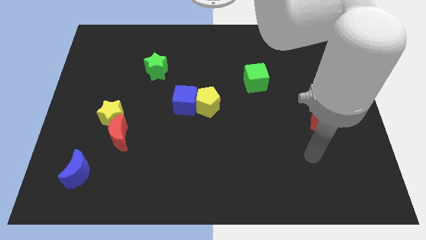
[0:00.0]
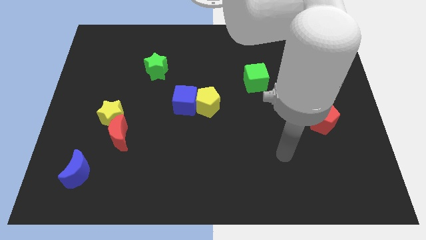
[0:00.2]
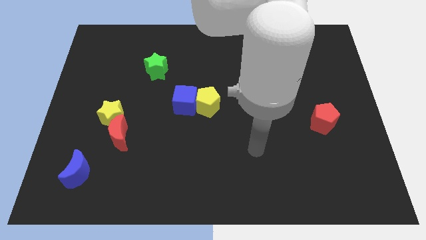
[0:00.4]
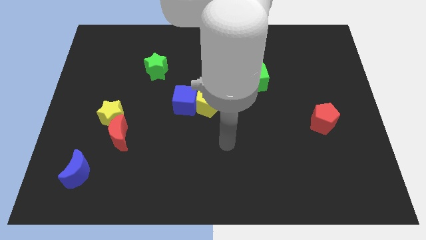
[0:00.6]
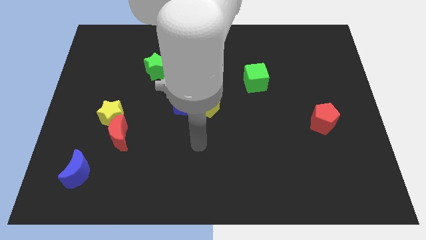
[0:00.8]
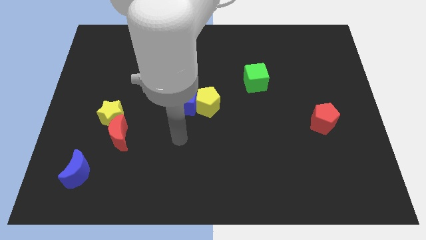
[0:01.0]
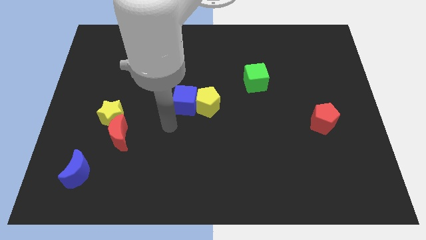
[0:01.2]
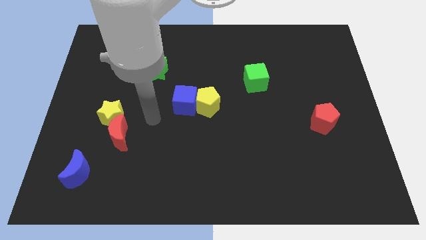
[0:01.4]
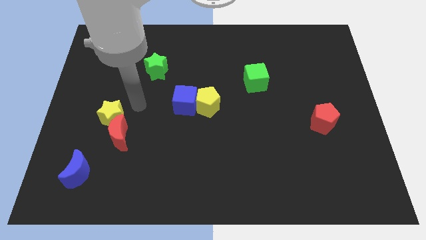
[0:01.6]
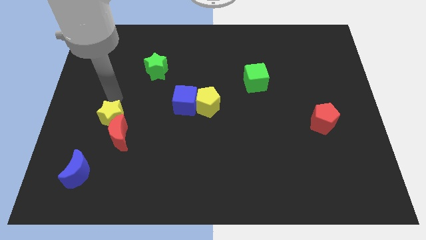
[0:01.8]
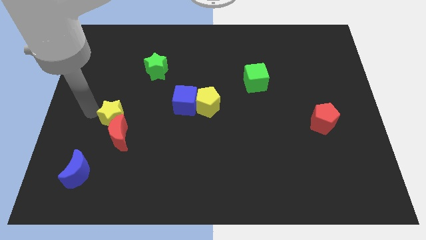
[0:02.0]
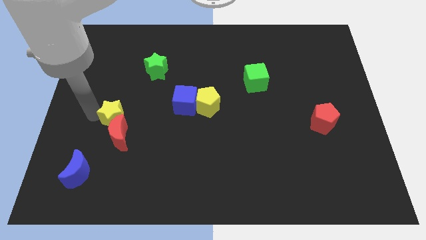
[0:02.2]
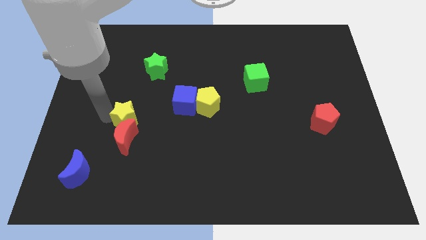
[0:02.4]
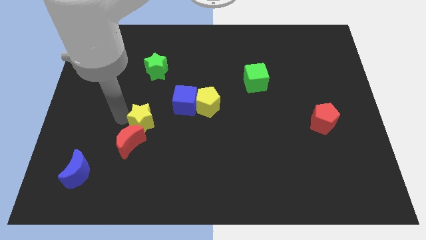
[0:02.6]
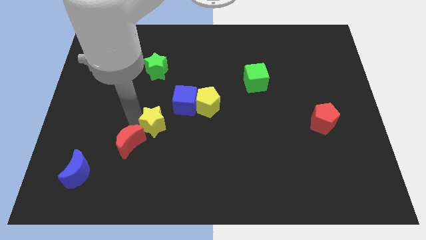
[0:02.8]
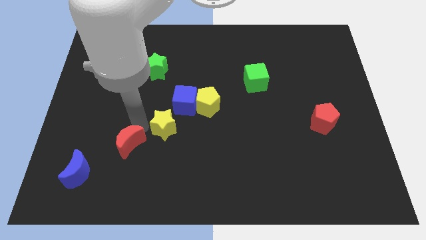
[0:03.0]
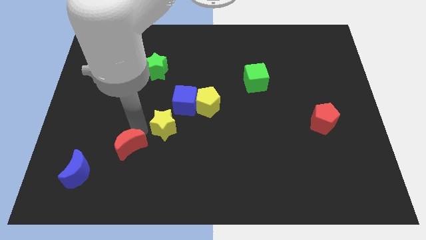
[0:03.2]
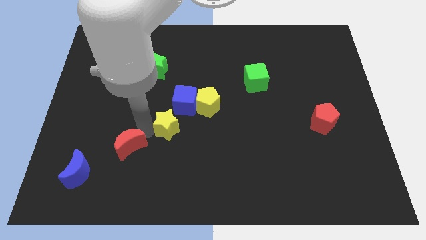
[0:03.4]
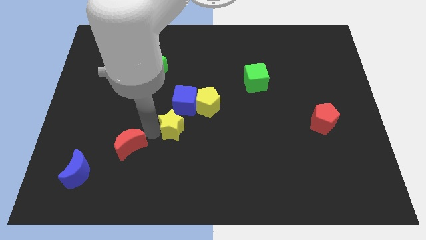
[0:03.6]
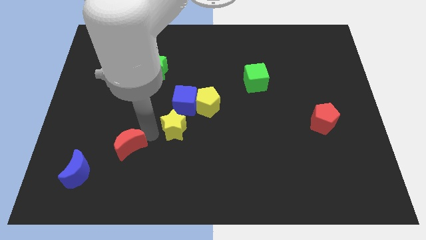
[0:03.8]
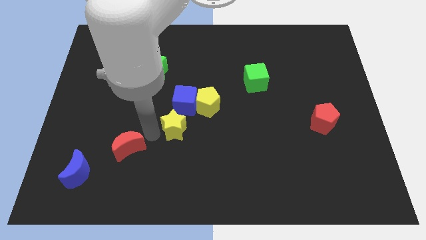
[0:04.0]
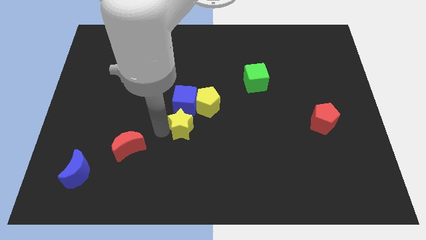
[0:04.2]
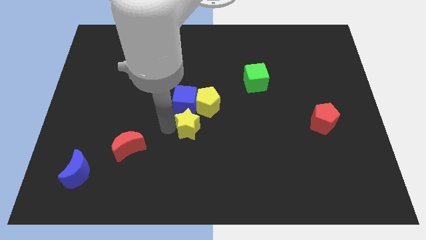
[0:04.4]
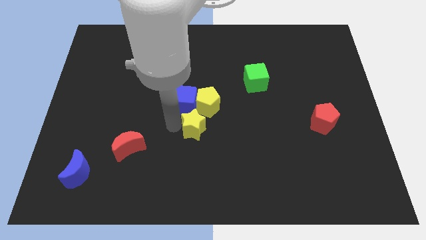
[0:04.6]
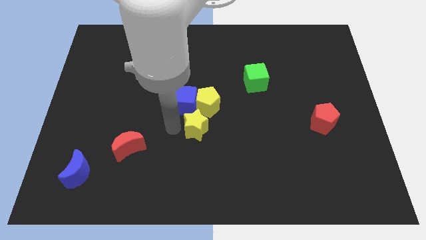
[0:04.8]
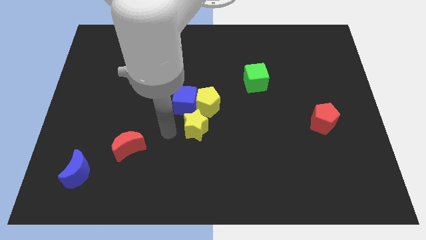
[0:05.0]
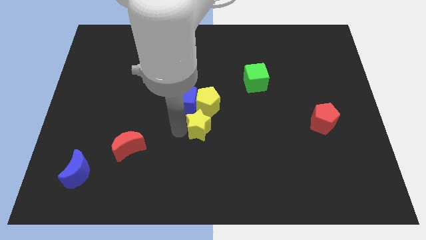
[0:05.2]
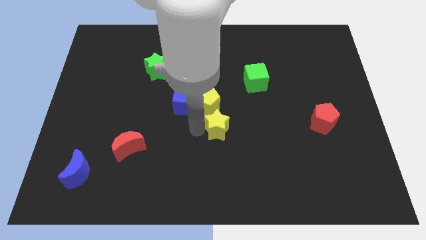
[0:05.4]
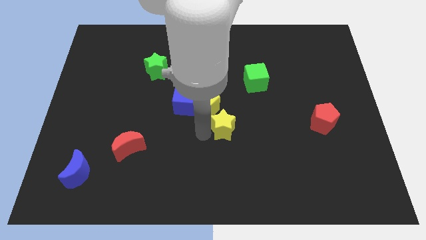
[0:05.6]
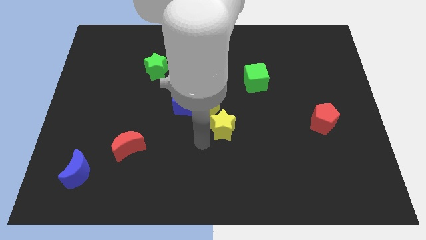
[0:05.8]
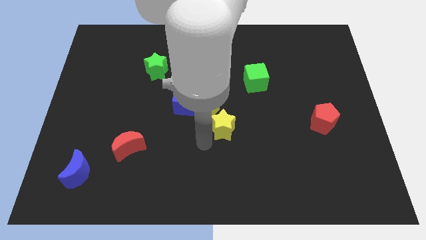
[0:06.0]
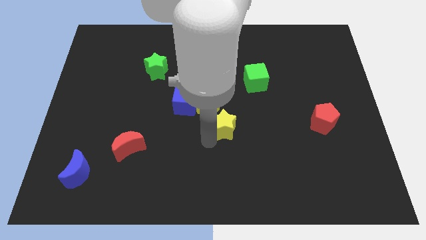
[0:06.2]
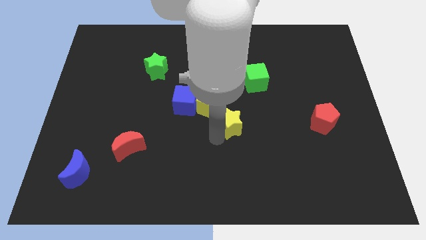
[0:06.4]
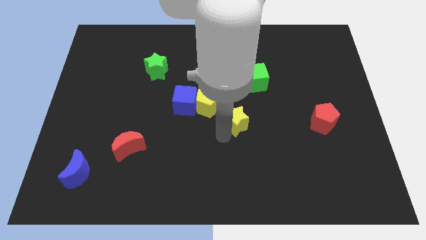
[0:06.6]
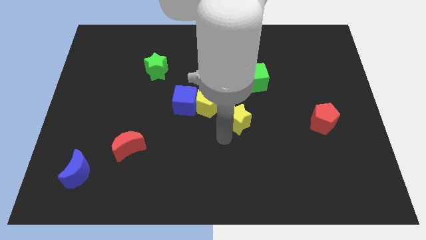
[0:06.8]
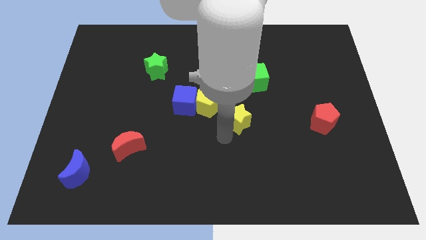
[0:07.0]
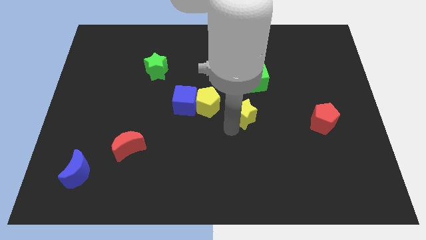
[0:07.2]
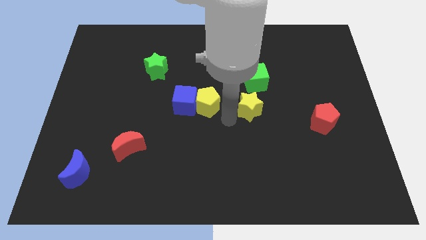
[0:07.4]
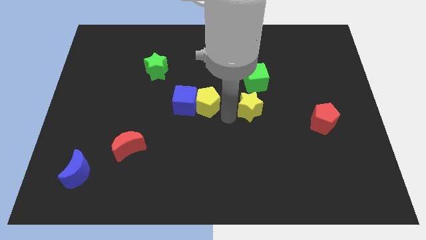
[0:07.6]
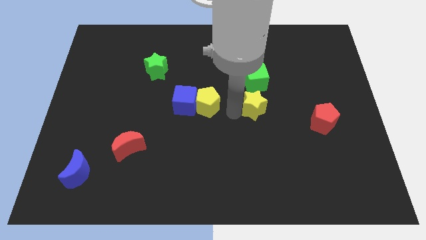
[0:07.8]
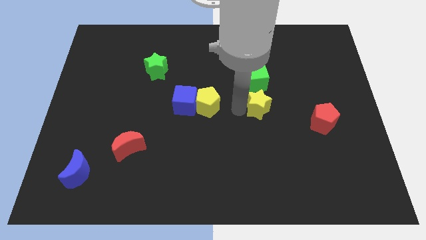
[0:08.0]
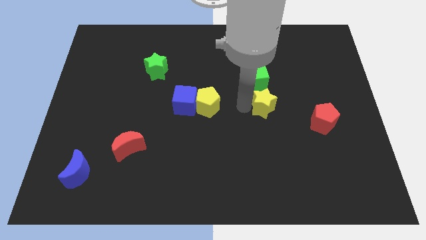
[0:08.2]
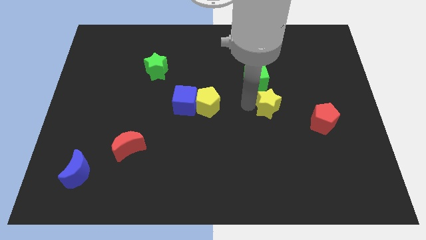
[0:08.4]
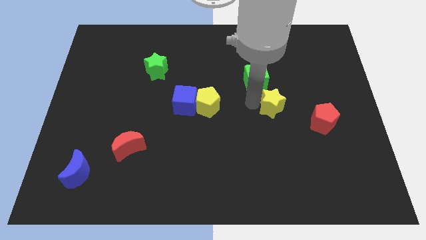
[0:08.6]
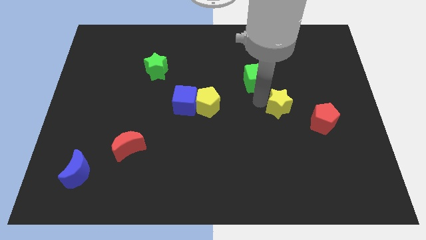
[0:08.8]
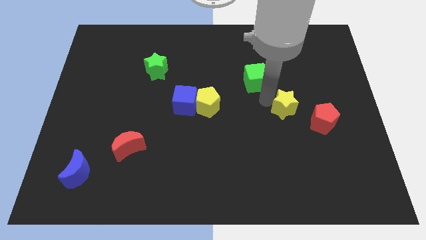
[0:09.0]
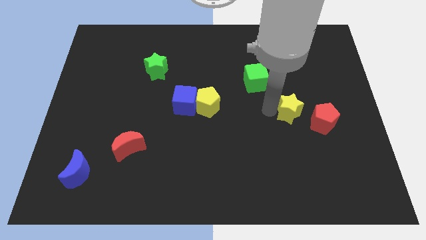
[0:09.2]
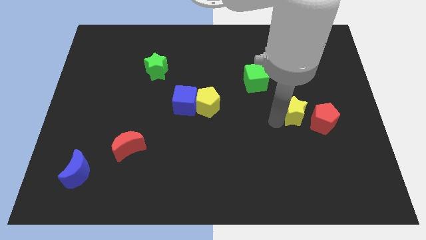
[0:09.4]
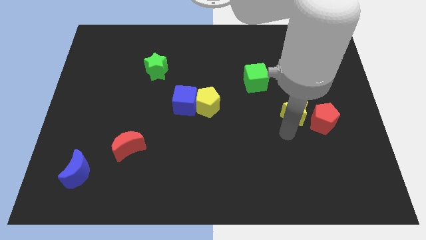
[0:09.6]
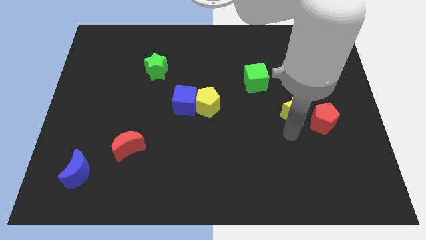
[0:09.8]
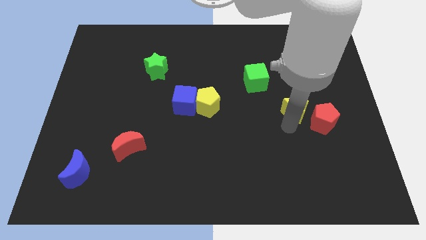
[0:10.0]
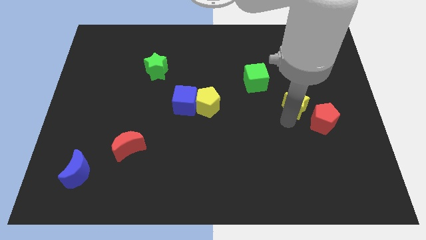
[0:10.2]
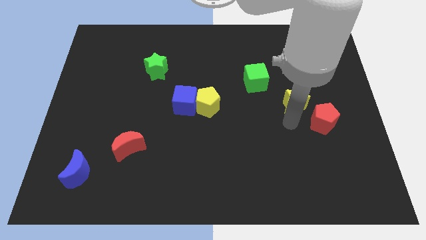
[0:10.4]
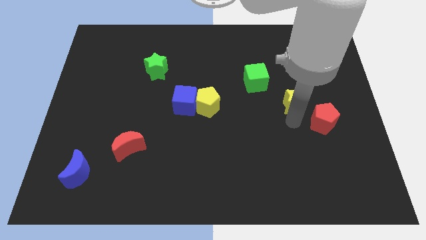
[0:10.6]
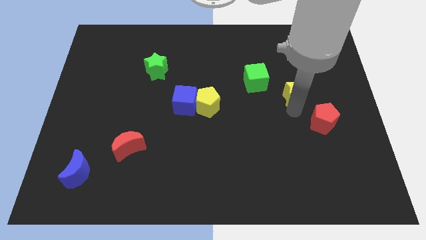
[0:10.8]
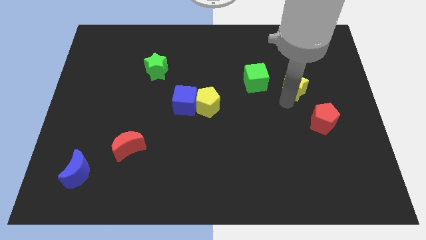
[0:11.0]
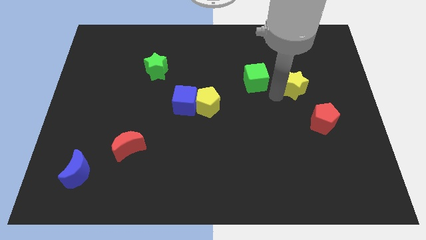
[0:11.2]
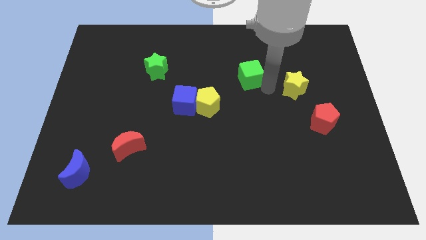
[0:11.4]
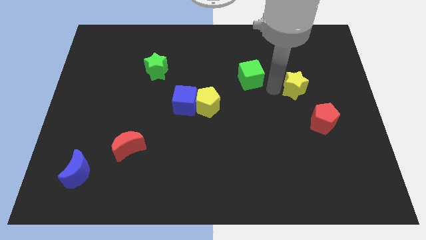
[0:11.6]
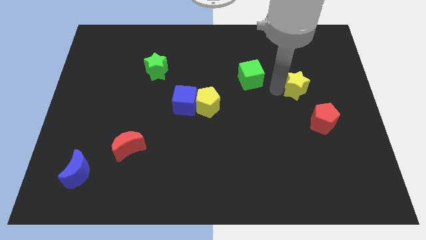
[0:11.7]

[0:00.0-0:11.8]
put the yellow star above the red pentagon

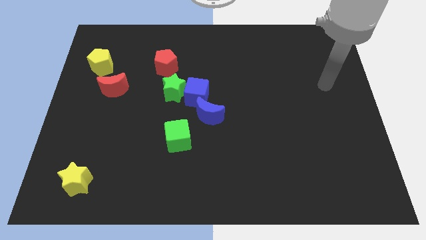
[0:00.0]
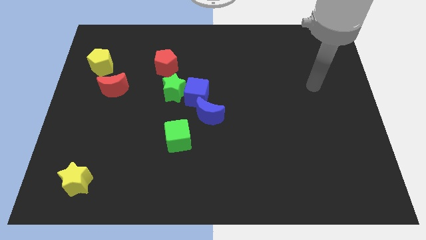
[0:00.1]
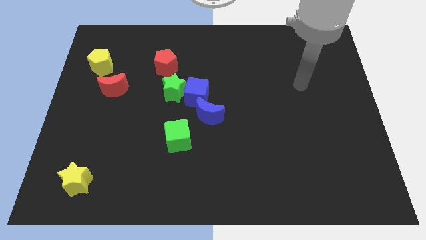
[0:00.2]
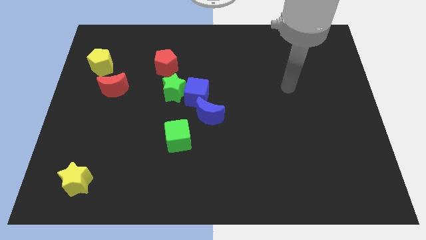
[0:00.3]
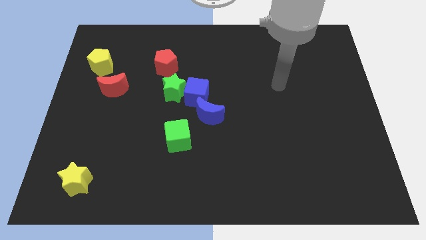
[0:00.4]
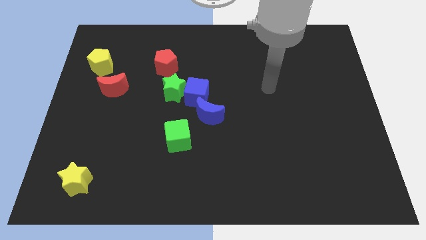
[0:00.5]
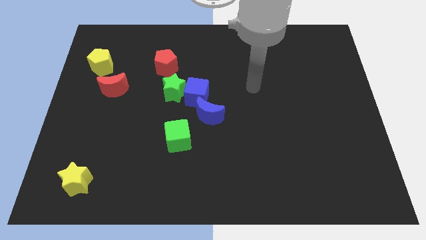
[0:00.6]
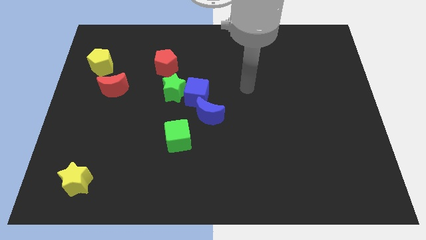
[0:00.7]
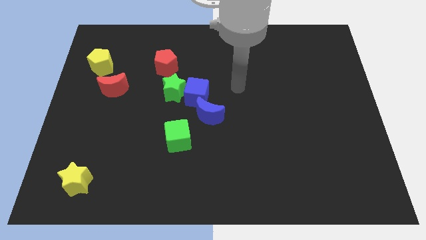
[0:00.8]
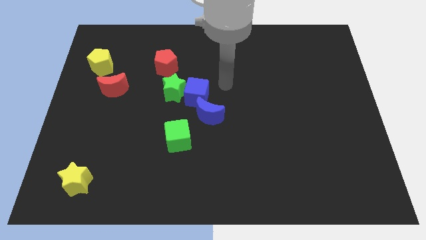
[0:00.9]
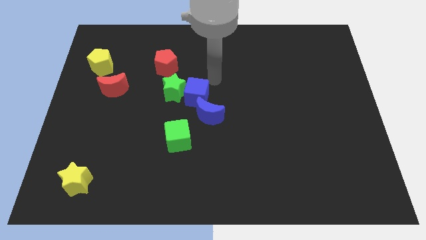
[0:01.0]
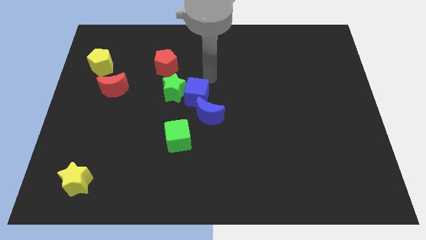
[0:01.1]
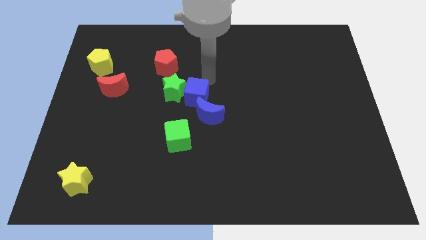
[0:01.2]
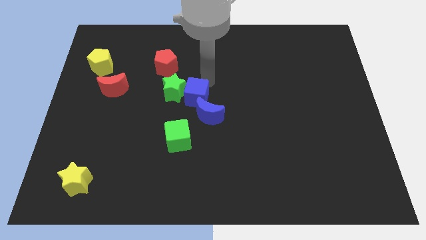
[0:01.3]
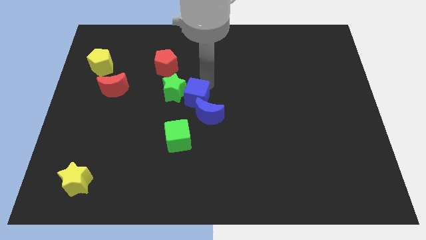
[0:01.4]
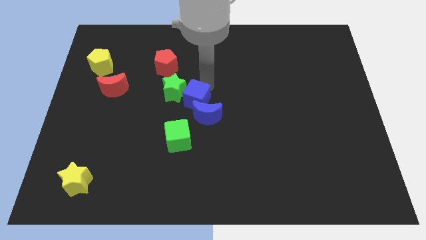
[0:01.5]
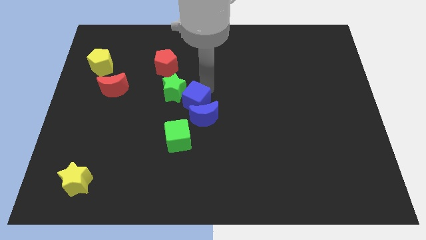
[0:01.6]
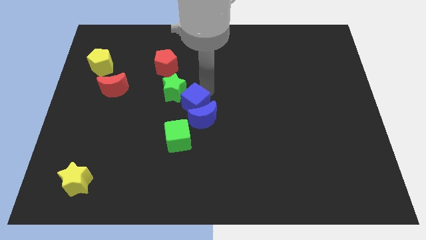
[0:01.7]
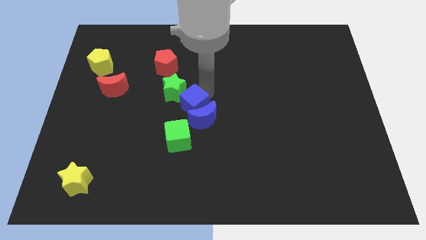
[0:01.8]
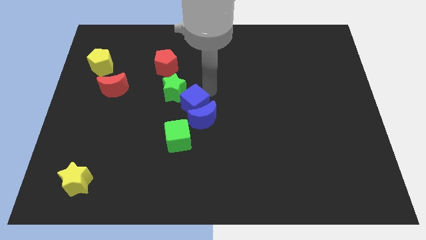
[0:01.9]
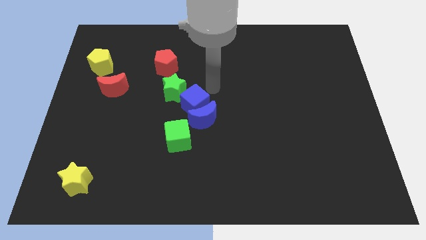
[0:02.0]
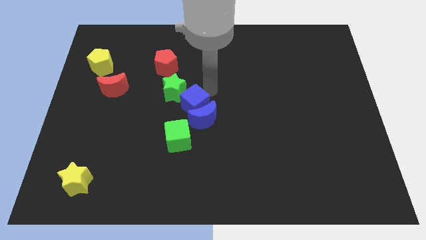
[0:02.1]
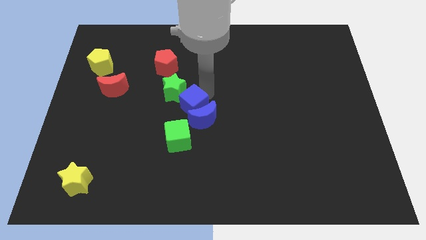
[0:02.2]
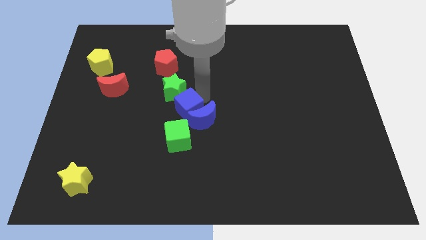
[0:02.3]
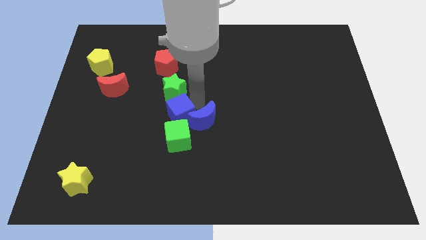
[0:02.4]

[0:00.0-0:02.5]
move the blue cube to the top left side of the green cube
